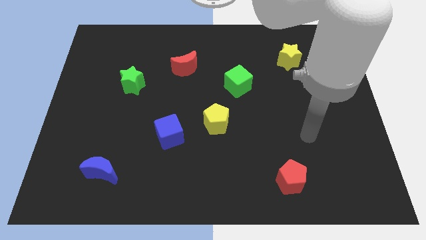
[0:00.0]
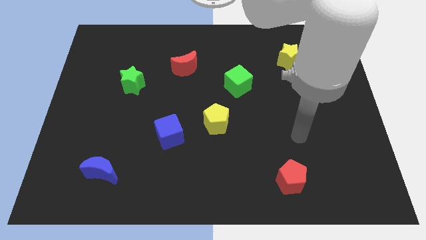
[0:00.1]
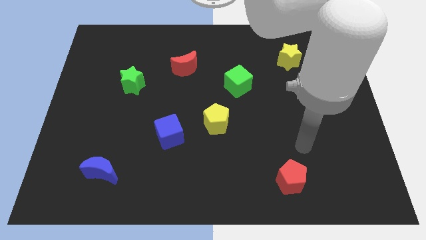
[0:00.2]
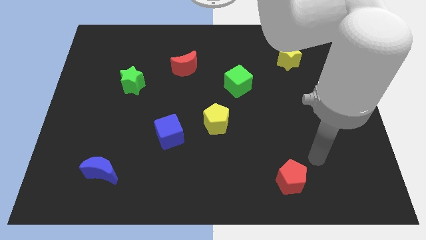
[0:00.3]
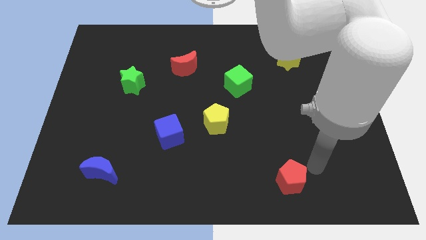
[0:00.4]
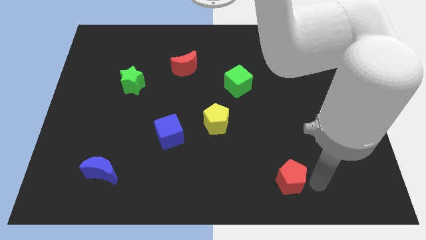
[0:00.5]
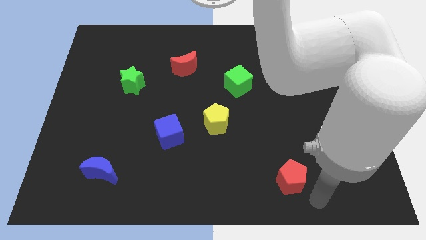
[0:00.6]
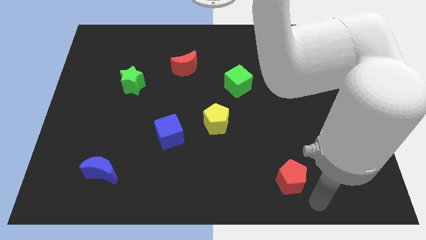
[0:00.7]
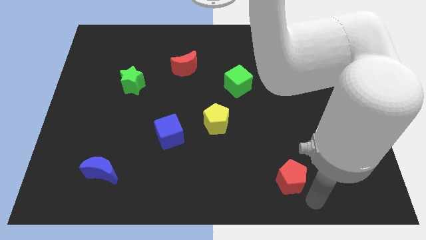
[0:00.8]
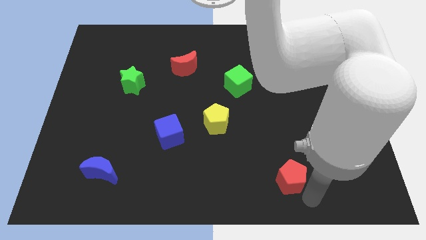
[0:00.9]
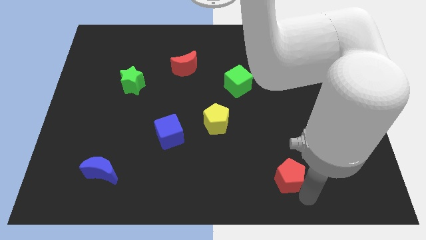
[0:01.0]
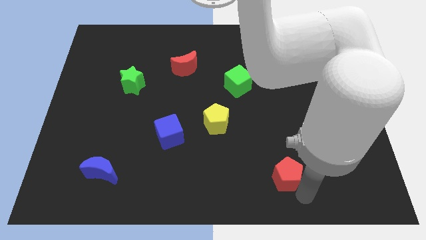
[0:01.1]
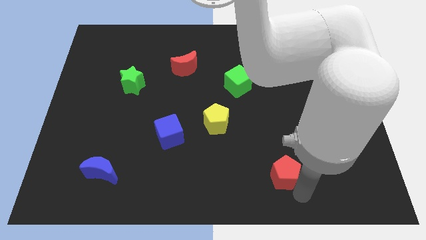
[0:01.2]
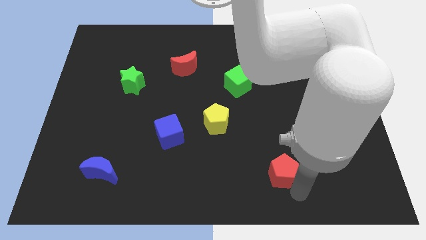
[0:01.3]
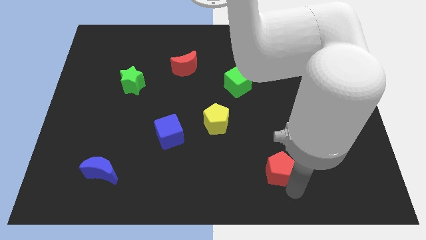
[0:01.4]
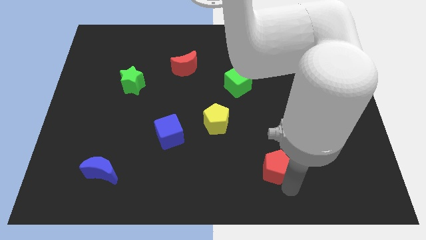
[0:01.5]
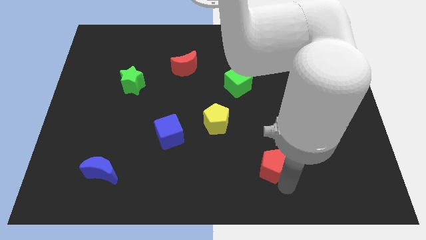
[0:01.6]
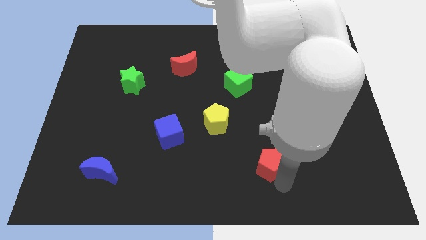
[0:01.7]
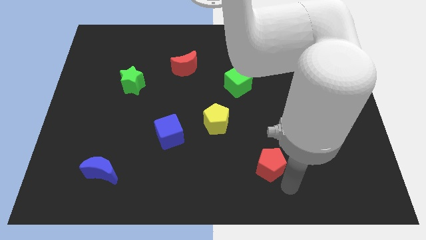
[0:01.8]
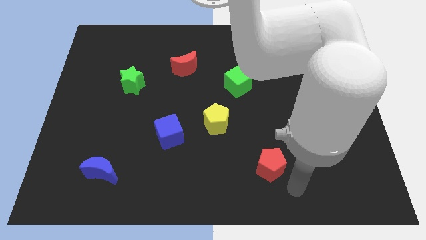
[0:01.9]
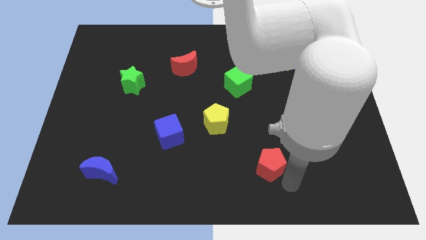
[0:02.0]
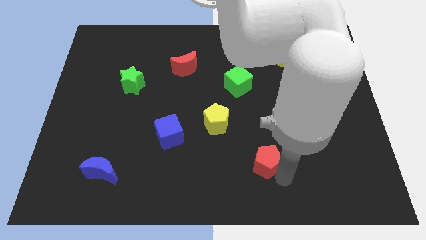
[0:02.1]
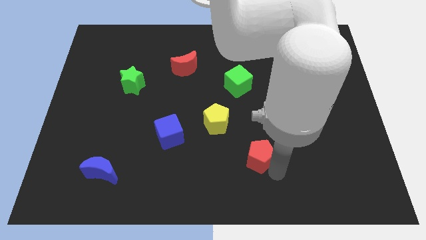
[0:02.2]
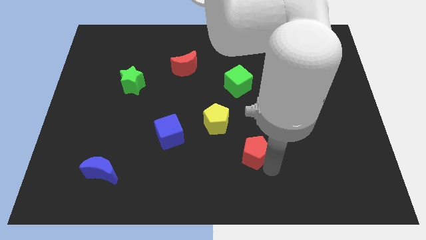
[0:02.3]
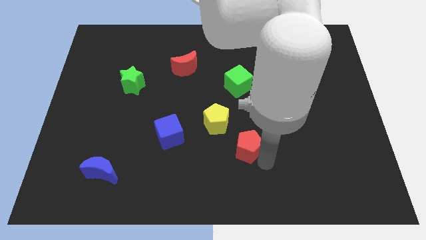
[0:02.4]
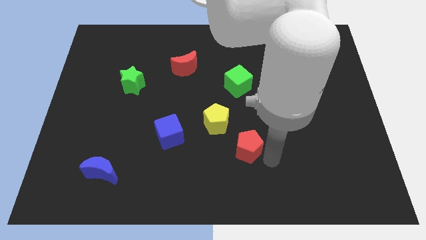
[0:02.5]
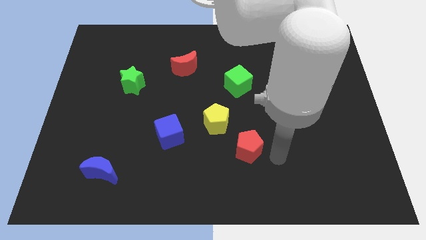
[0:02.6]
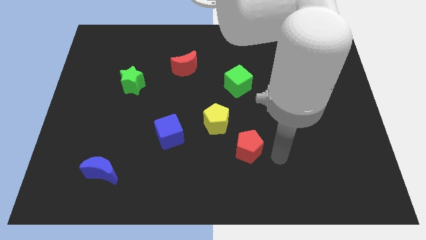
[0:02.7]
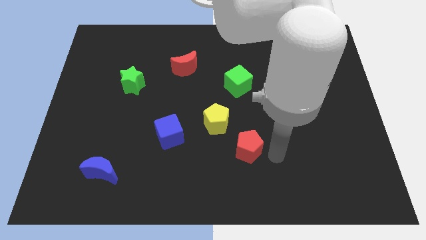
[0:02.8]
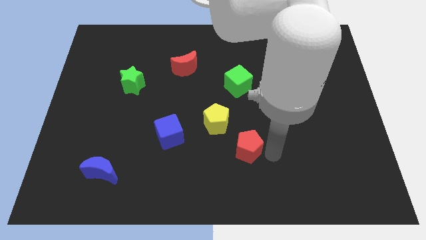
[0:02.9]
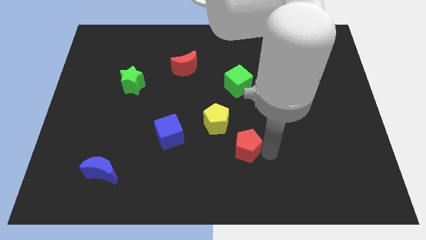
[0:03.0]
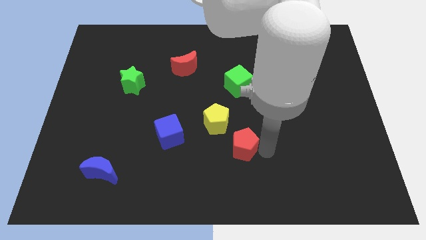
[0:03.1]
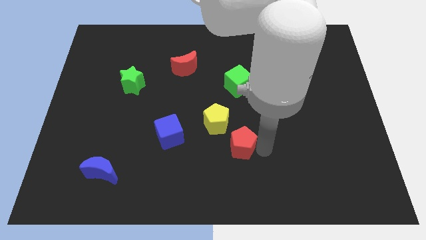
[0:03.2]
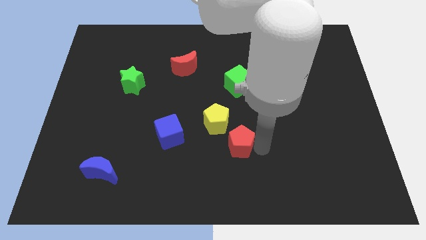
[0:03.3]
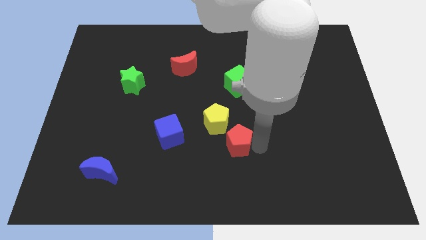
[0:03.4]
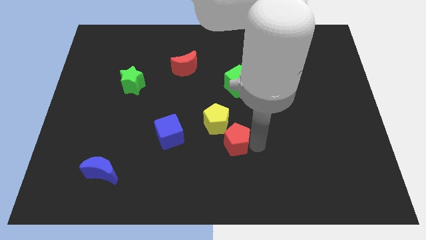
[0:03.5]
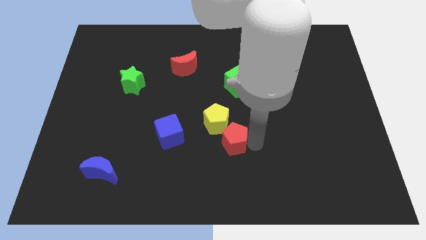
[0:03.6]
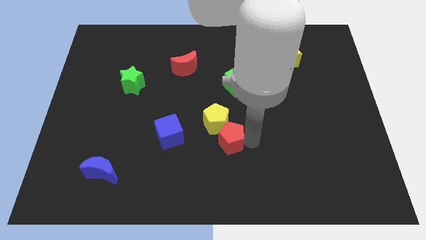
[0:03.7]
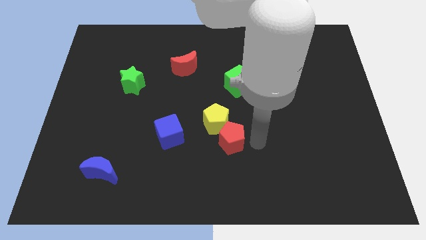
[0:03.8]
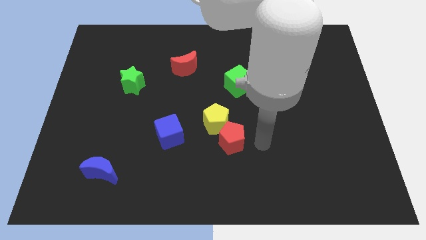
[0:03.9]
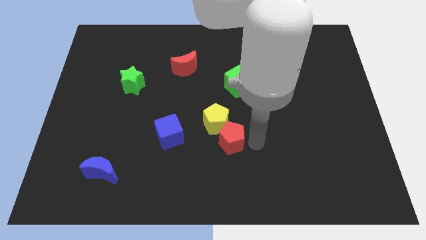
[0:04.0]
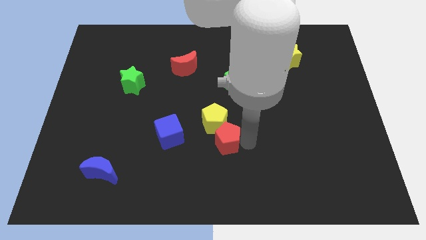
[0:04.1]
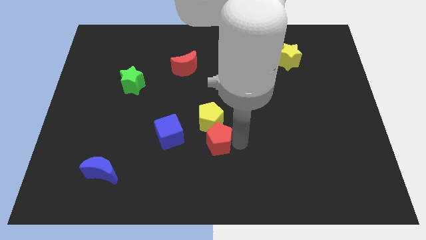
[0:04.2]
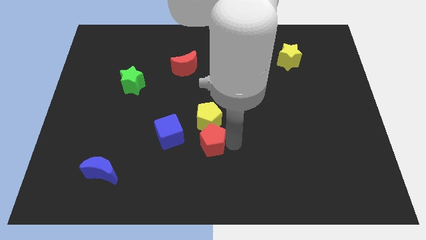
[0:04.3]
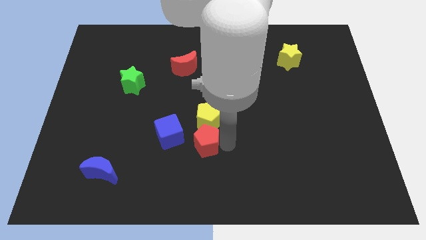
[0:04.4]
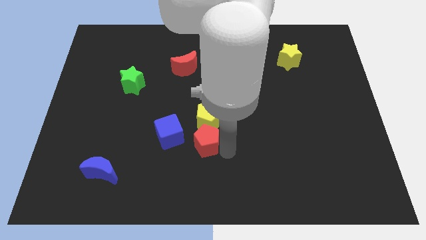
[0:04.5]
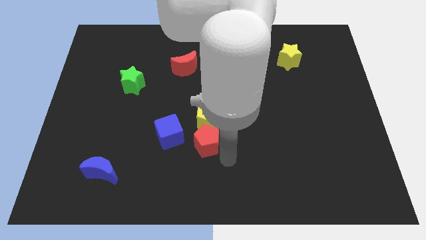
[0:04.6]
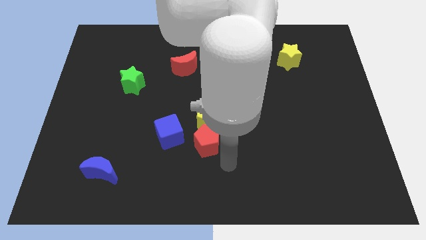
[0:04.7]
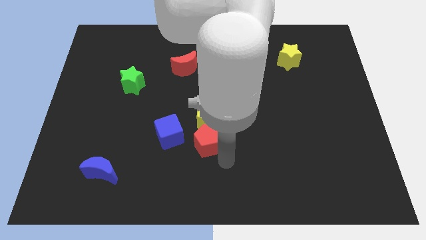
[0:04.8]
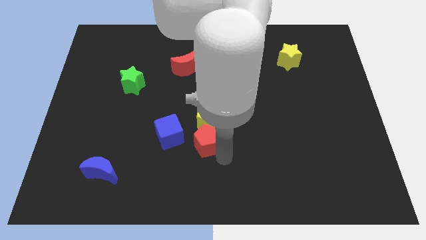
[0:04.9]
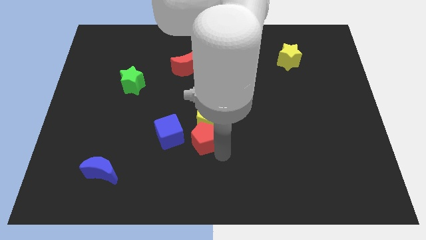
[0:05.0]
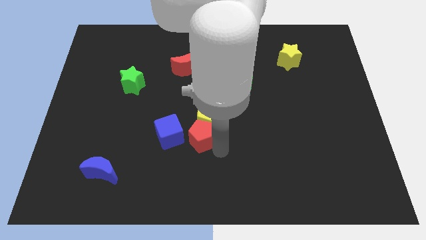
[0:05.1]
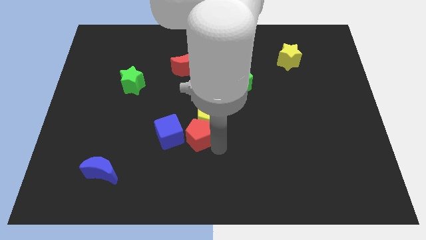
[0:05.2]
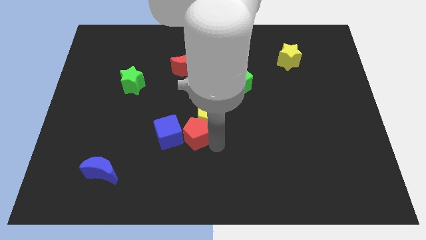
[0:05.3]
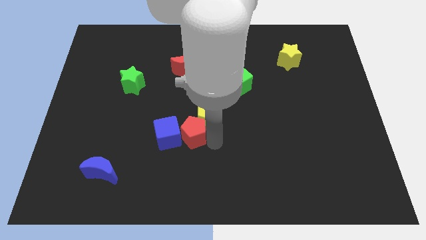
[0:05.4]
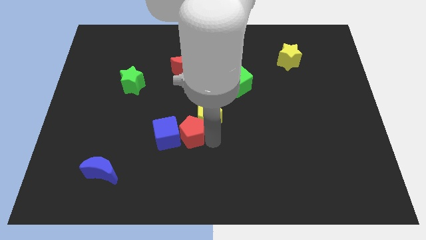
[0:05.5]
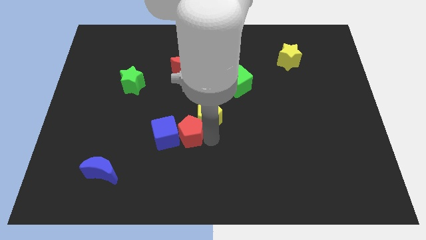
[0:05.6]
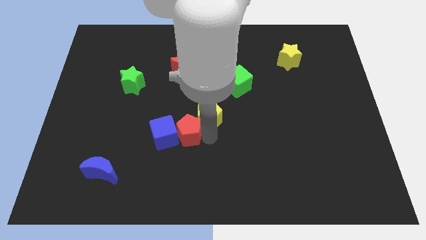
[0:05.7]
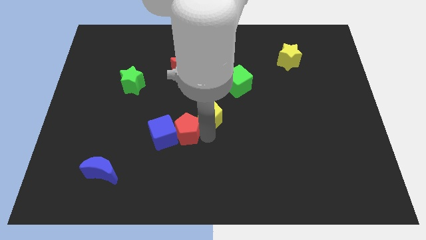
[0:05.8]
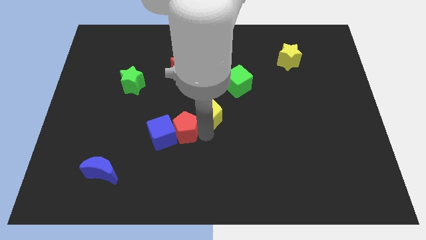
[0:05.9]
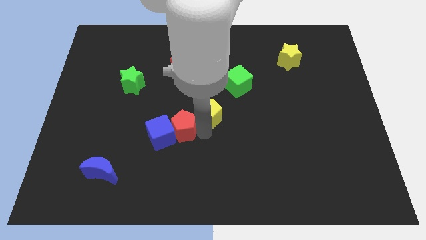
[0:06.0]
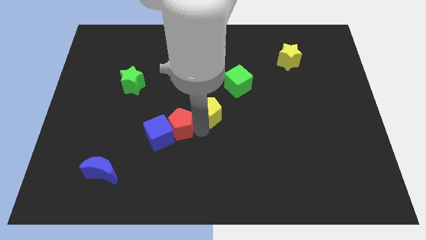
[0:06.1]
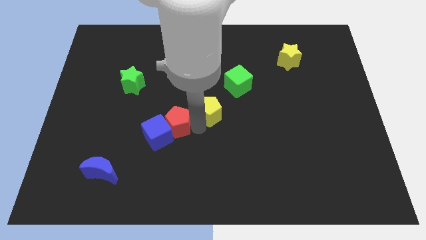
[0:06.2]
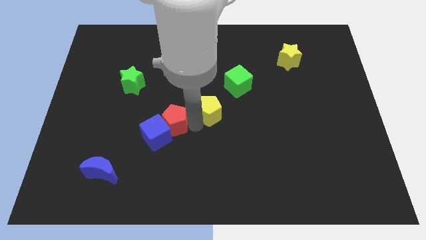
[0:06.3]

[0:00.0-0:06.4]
slide the red pentagon to the top of the blue cube

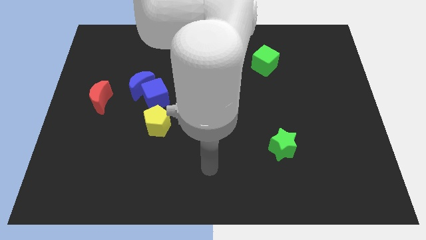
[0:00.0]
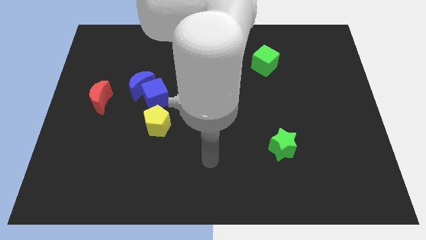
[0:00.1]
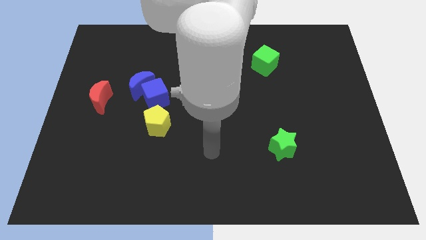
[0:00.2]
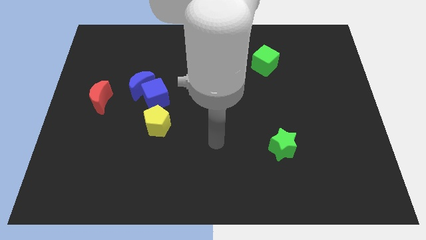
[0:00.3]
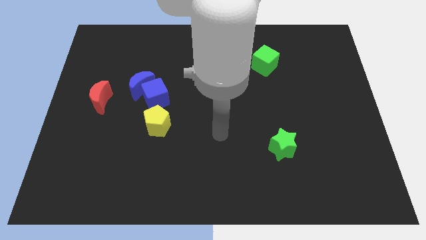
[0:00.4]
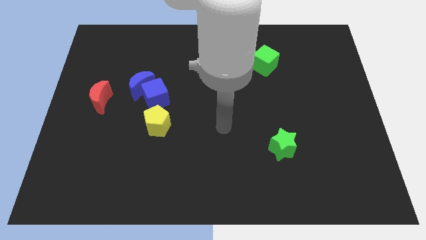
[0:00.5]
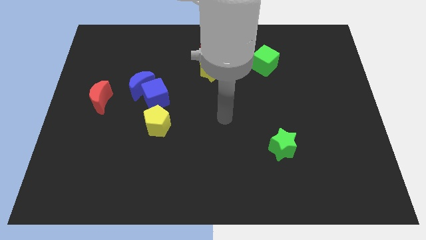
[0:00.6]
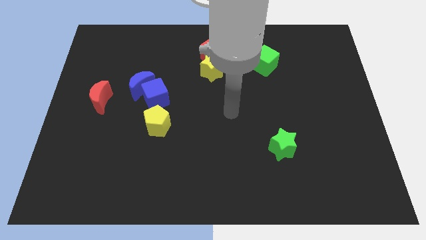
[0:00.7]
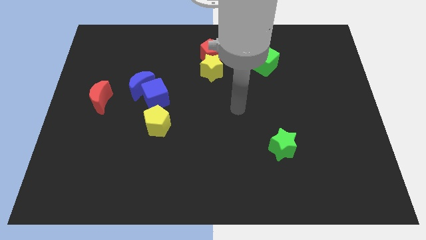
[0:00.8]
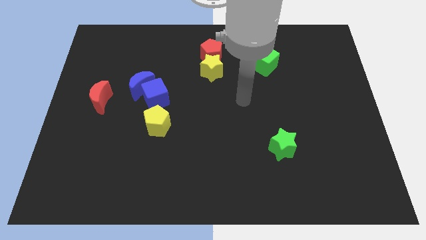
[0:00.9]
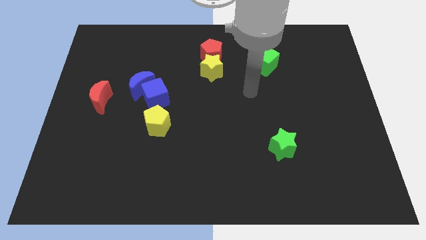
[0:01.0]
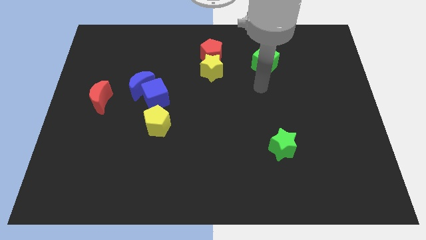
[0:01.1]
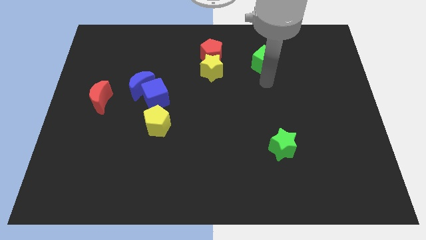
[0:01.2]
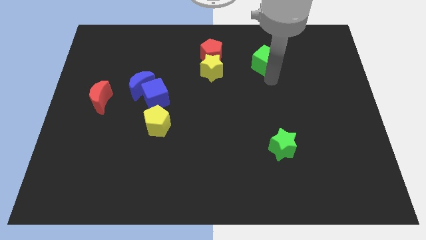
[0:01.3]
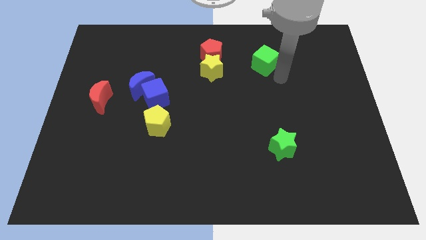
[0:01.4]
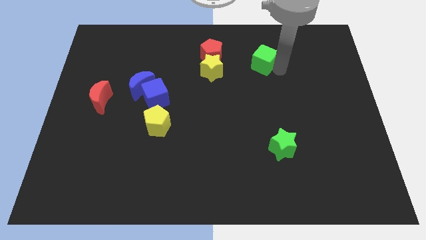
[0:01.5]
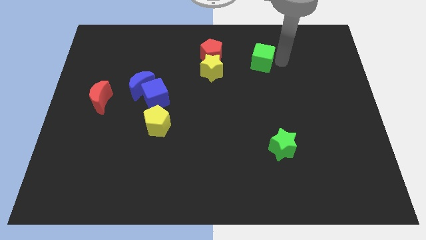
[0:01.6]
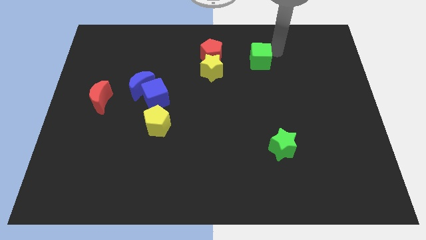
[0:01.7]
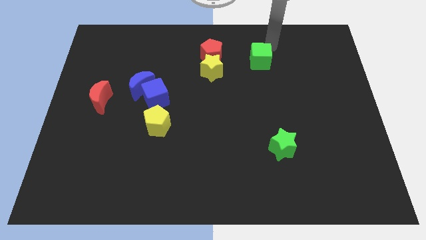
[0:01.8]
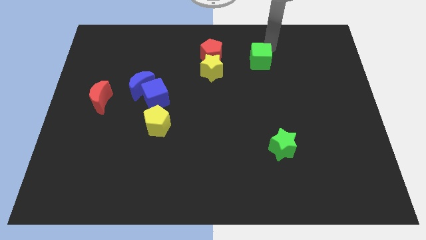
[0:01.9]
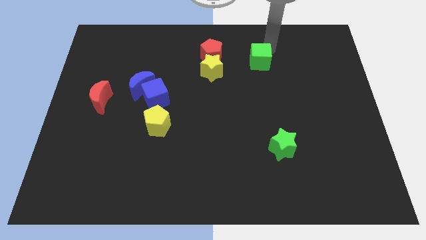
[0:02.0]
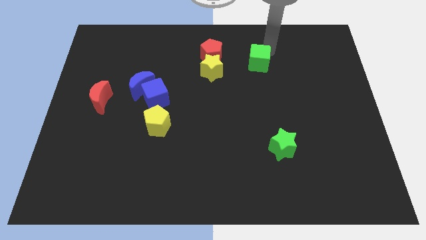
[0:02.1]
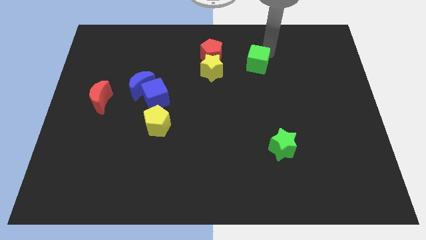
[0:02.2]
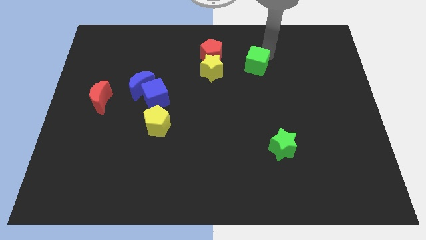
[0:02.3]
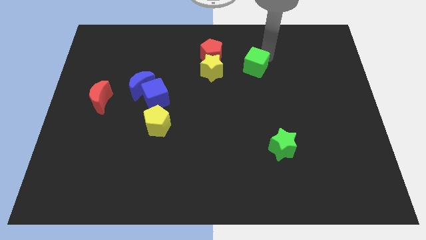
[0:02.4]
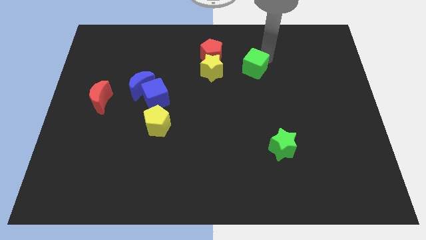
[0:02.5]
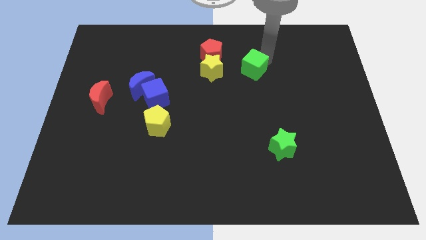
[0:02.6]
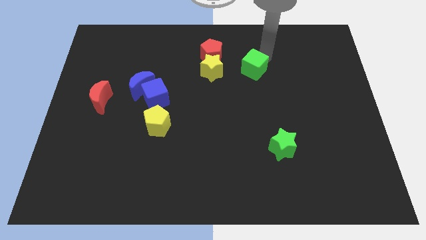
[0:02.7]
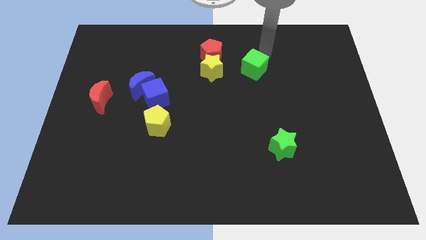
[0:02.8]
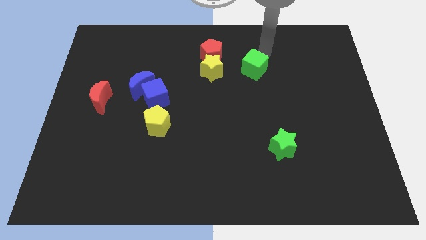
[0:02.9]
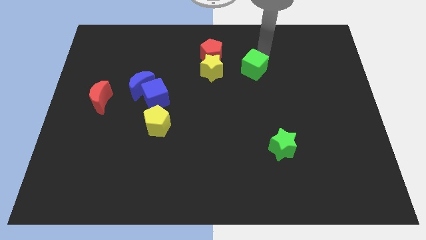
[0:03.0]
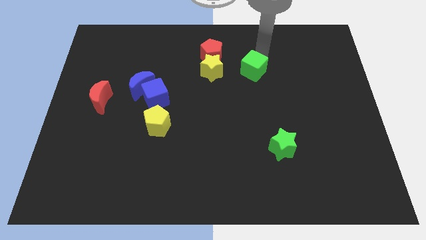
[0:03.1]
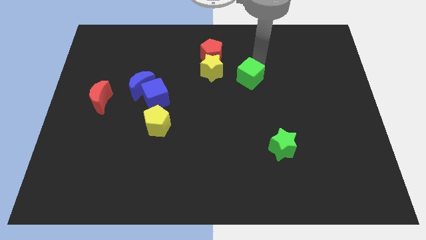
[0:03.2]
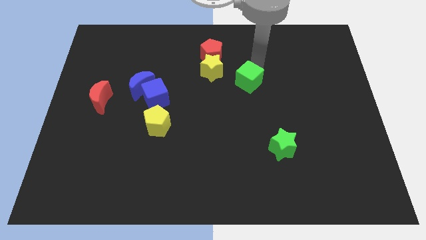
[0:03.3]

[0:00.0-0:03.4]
put the green cube to the bottom right of the yellow star
